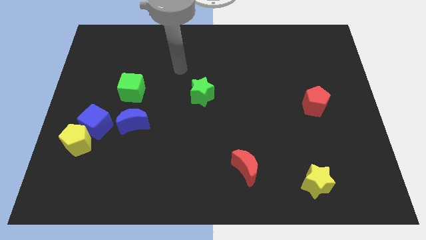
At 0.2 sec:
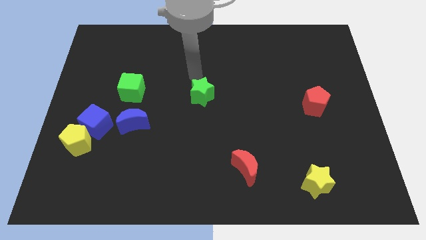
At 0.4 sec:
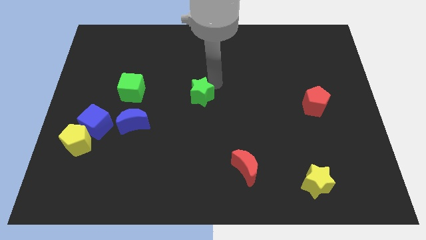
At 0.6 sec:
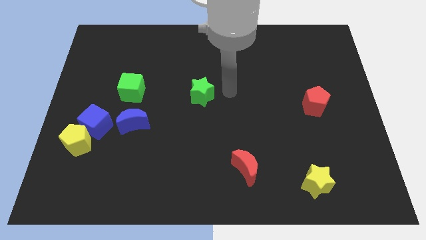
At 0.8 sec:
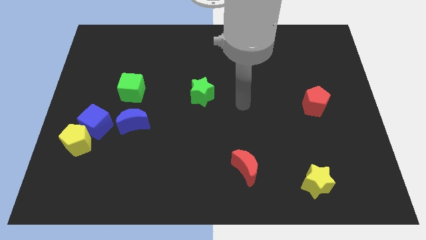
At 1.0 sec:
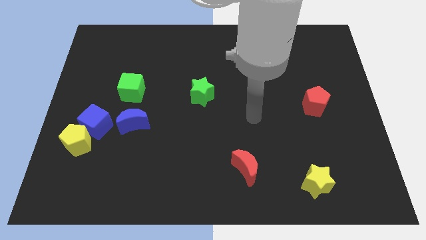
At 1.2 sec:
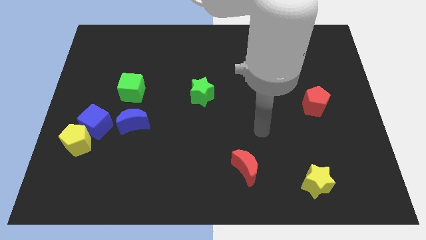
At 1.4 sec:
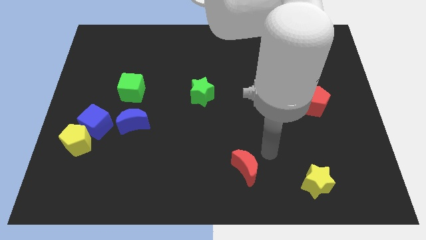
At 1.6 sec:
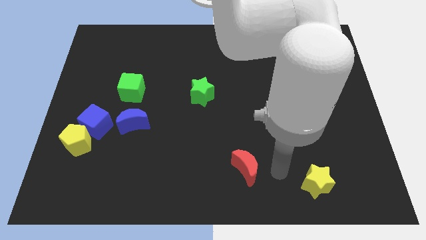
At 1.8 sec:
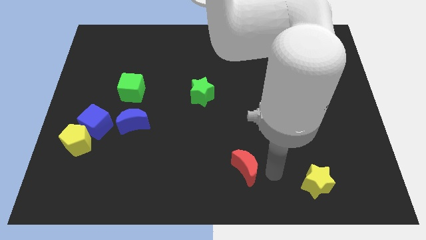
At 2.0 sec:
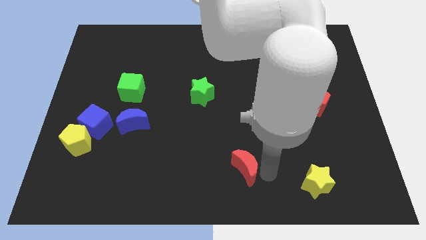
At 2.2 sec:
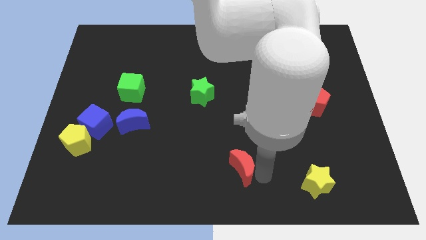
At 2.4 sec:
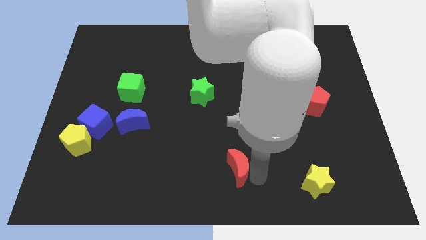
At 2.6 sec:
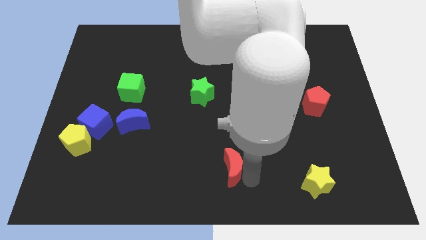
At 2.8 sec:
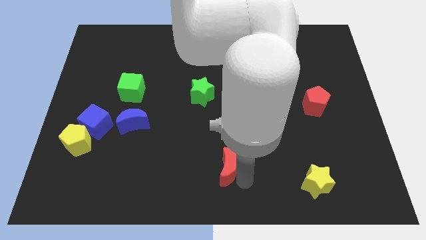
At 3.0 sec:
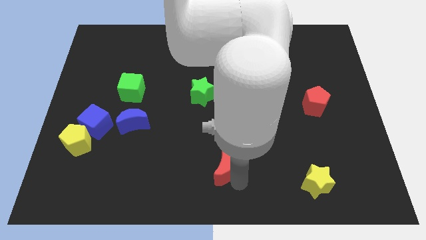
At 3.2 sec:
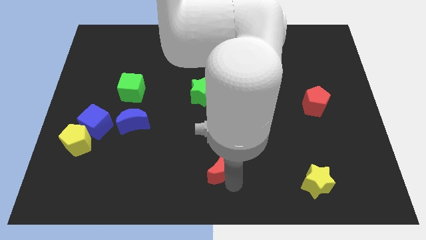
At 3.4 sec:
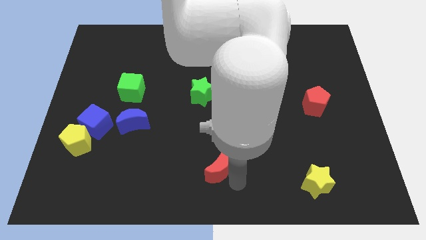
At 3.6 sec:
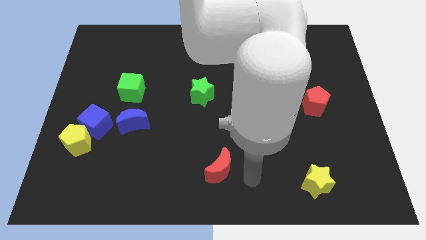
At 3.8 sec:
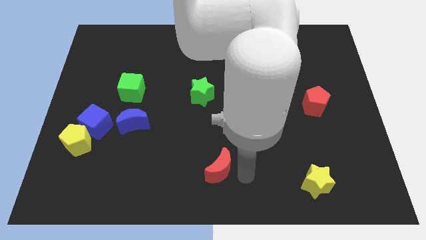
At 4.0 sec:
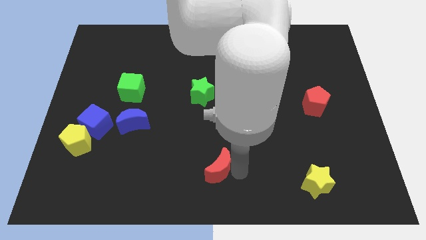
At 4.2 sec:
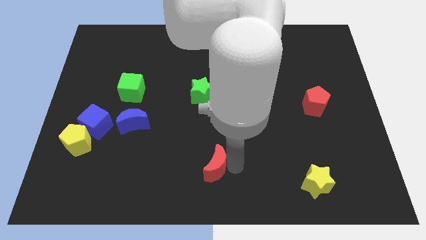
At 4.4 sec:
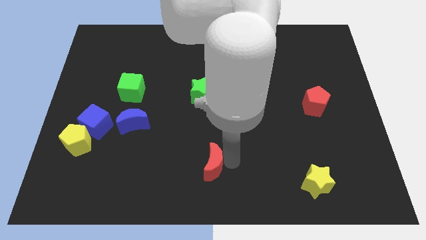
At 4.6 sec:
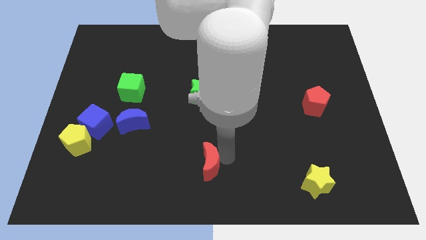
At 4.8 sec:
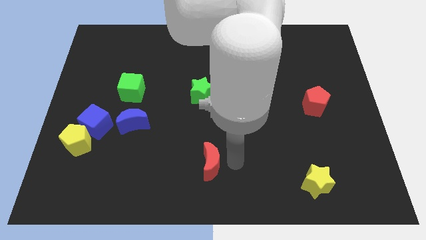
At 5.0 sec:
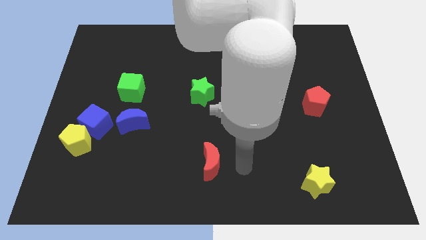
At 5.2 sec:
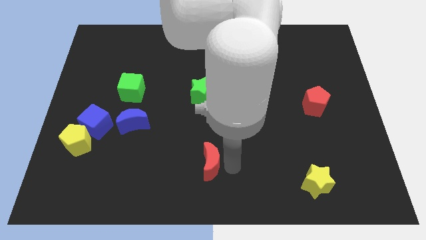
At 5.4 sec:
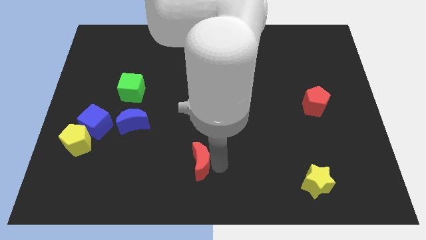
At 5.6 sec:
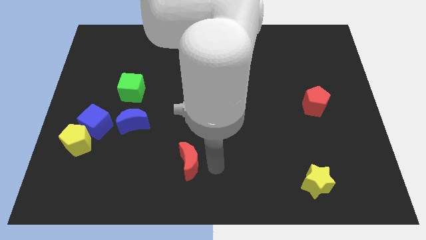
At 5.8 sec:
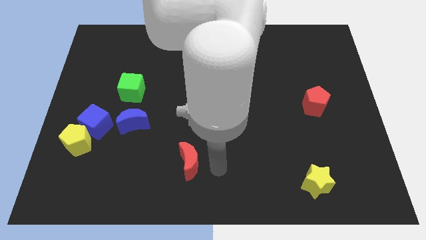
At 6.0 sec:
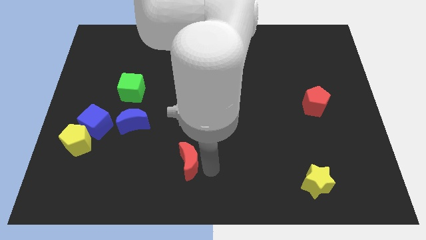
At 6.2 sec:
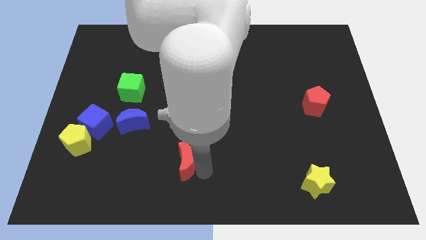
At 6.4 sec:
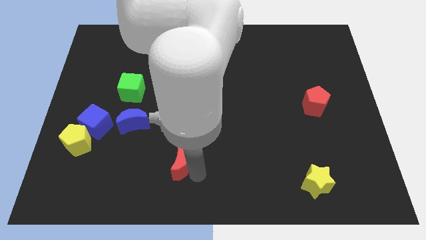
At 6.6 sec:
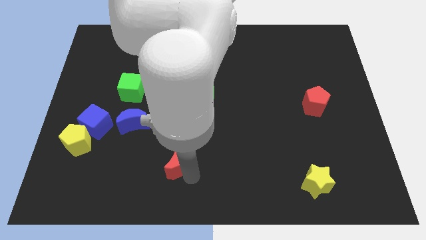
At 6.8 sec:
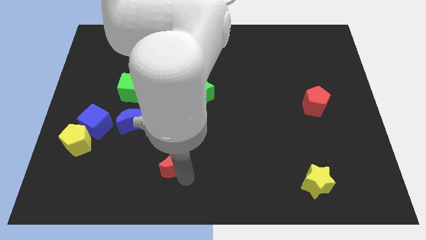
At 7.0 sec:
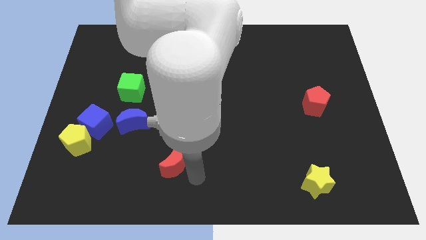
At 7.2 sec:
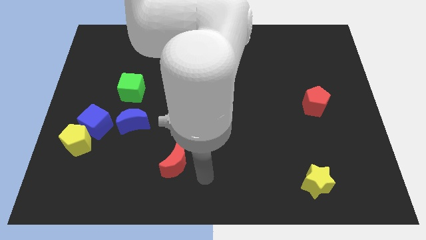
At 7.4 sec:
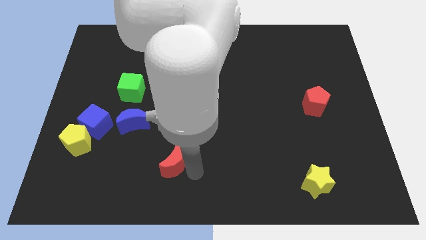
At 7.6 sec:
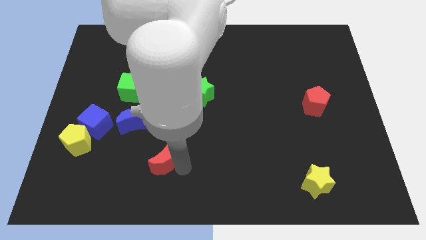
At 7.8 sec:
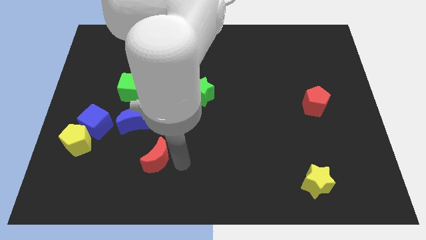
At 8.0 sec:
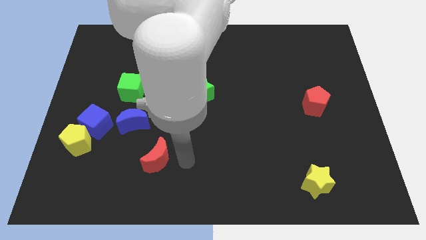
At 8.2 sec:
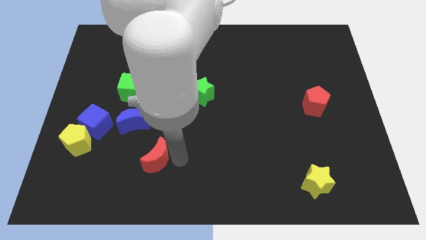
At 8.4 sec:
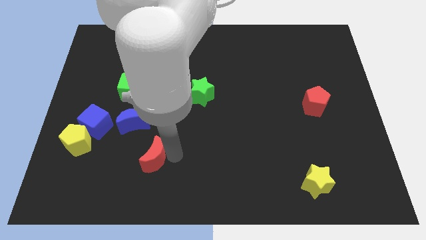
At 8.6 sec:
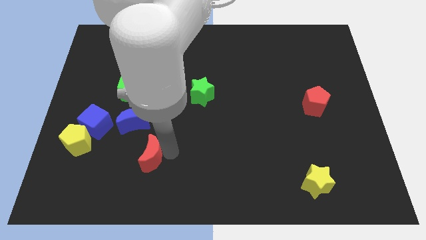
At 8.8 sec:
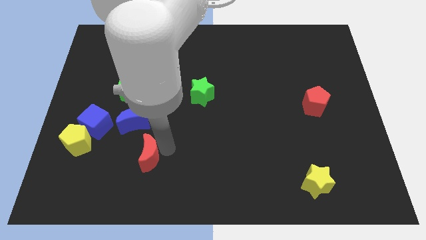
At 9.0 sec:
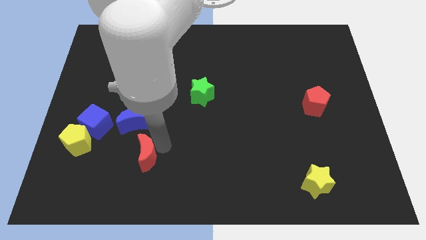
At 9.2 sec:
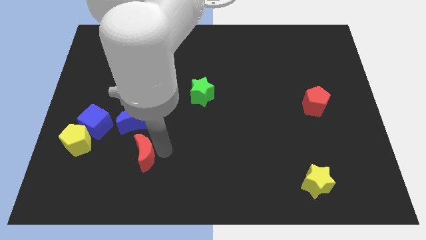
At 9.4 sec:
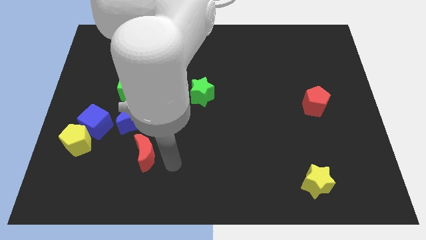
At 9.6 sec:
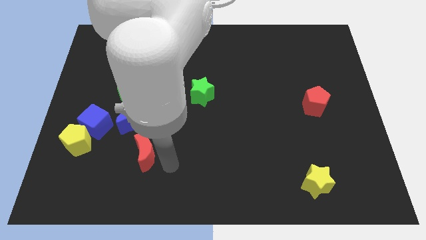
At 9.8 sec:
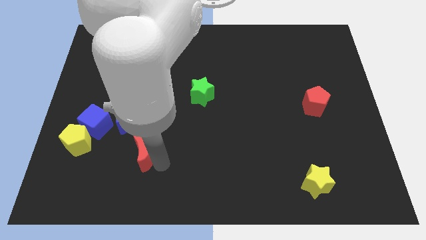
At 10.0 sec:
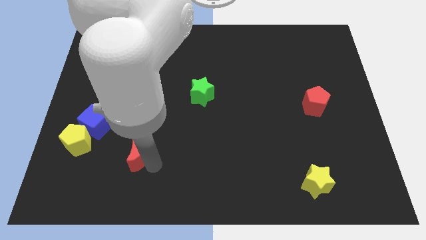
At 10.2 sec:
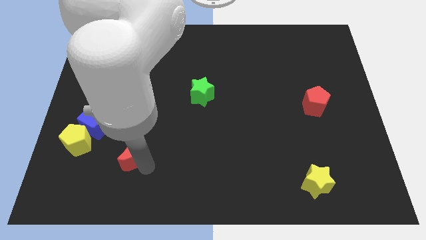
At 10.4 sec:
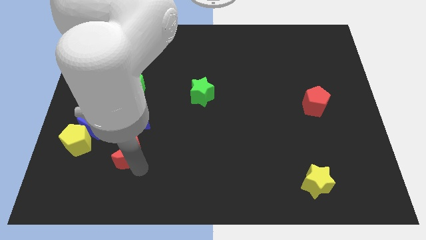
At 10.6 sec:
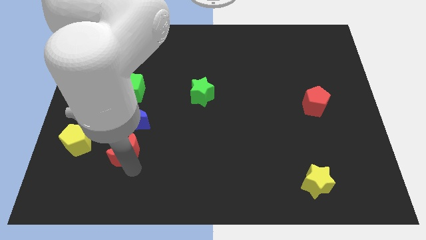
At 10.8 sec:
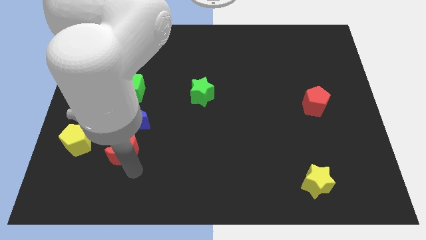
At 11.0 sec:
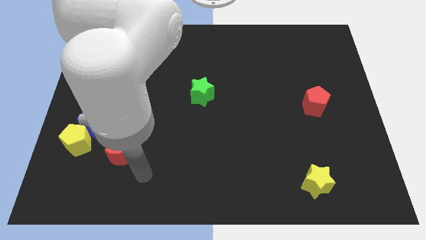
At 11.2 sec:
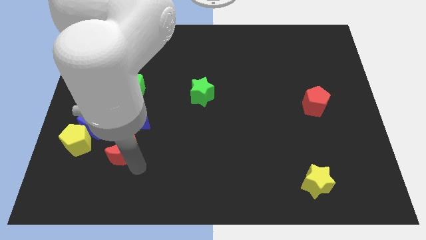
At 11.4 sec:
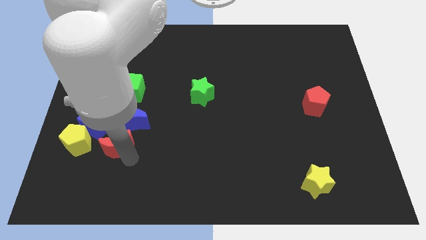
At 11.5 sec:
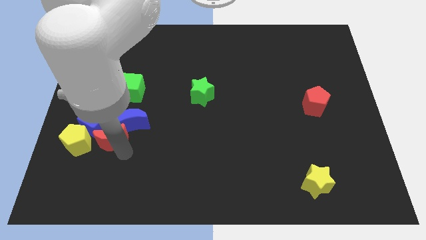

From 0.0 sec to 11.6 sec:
put the red moon next to the blue cube
